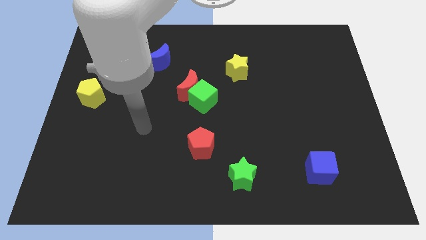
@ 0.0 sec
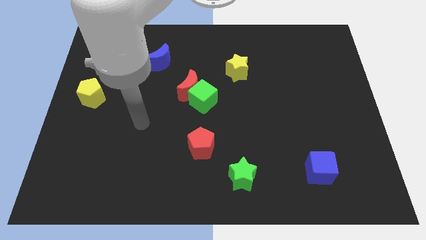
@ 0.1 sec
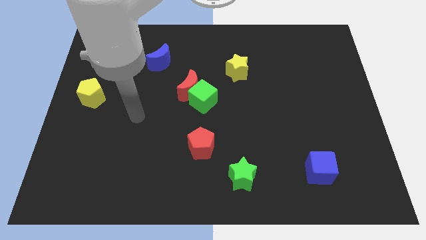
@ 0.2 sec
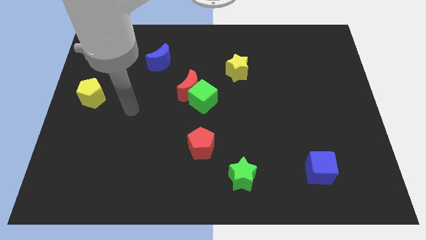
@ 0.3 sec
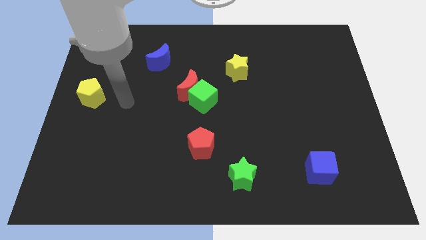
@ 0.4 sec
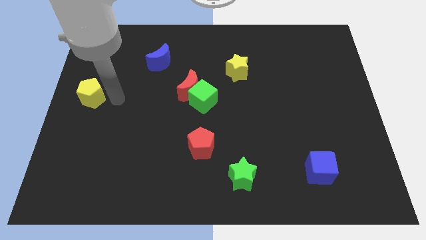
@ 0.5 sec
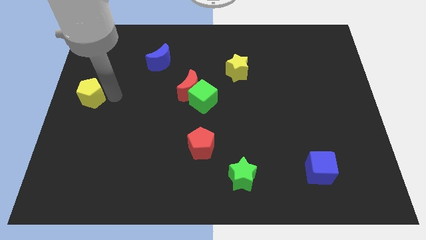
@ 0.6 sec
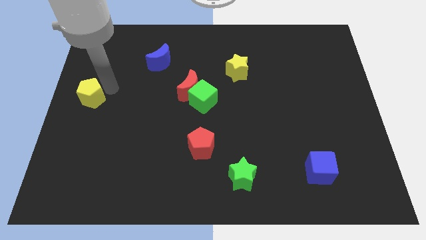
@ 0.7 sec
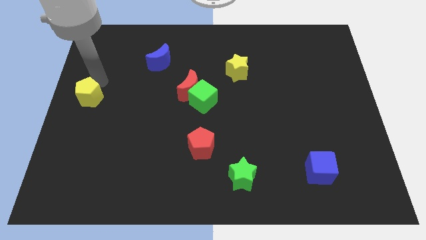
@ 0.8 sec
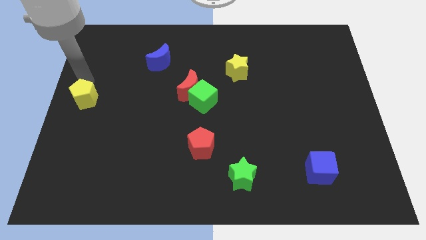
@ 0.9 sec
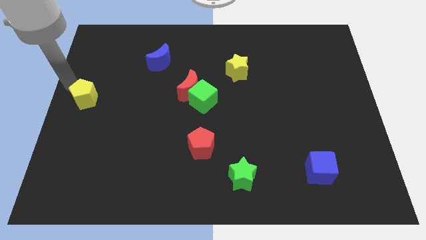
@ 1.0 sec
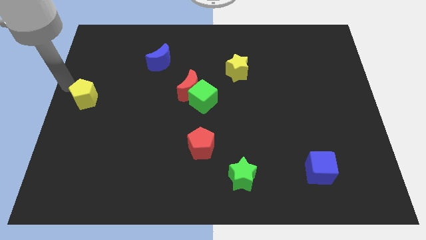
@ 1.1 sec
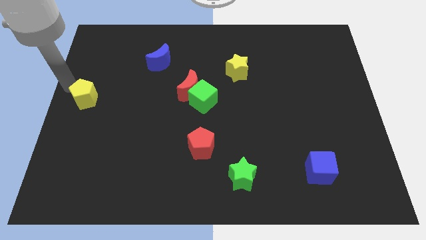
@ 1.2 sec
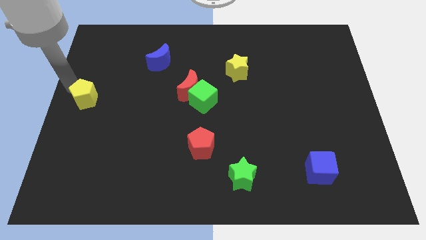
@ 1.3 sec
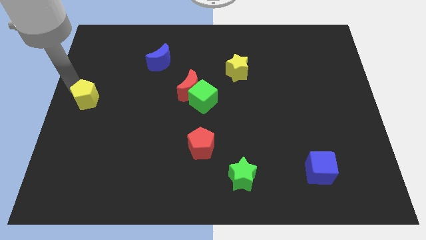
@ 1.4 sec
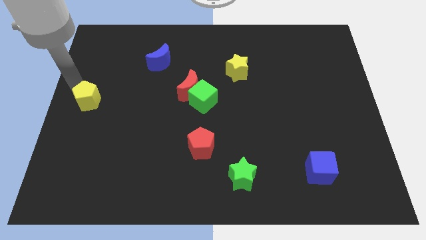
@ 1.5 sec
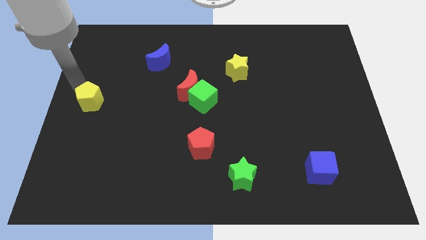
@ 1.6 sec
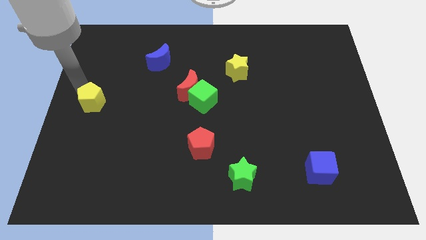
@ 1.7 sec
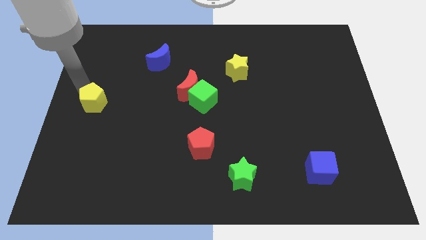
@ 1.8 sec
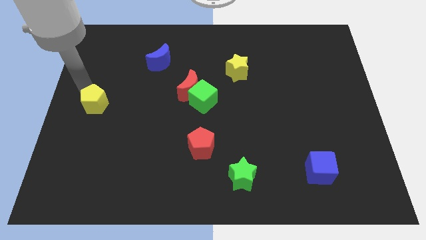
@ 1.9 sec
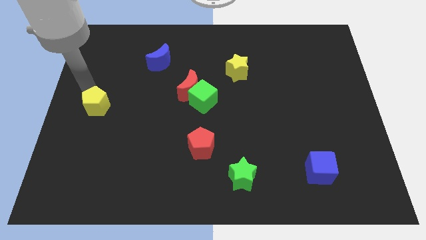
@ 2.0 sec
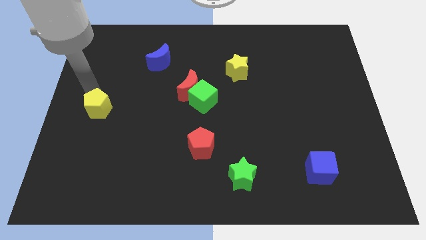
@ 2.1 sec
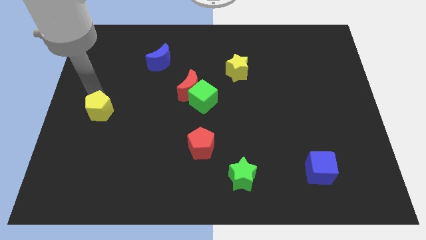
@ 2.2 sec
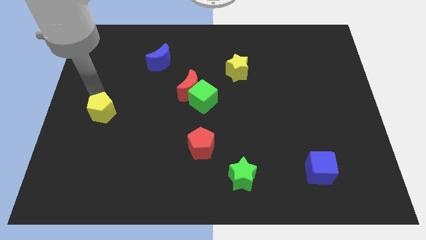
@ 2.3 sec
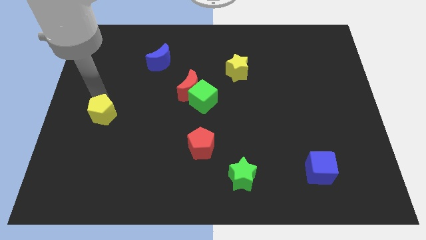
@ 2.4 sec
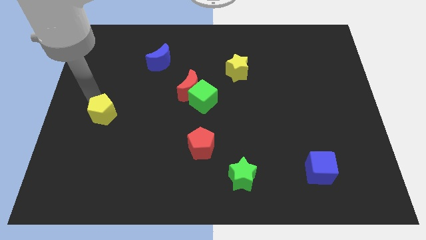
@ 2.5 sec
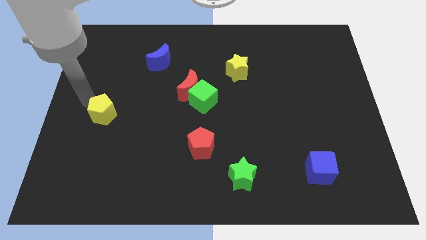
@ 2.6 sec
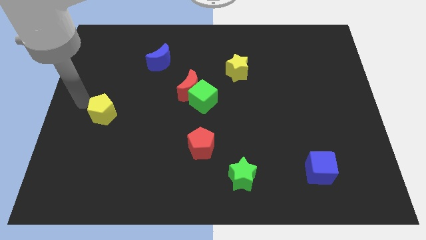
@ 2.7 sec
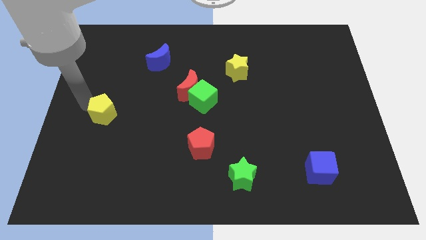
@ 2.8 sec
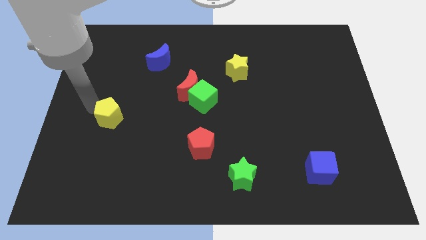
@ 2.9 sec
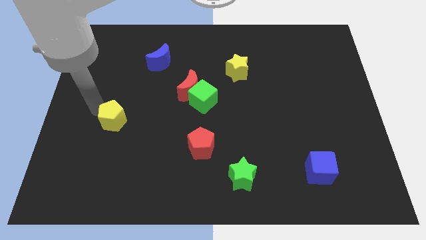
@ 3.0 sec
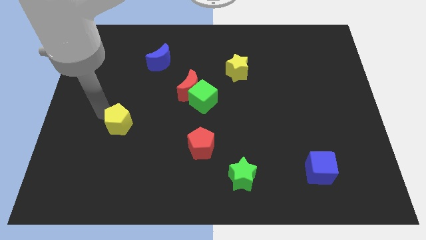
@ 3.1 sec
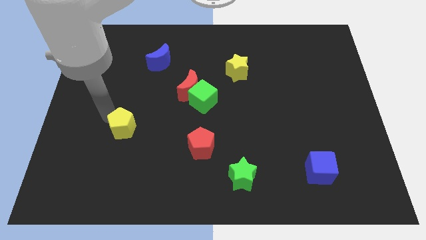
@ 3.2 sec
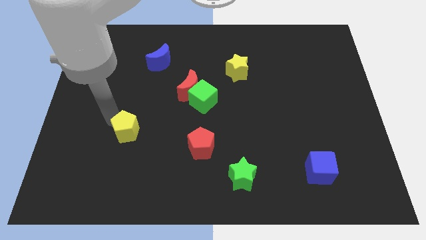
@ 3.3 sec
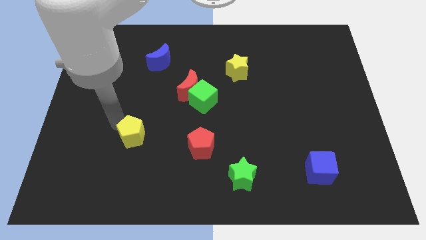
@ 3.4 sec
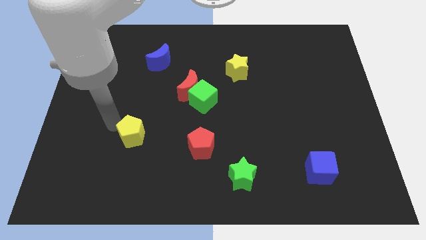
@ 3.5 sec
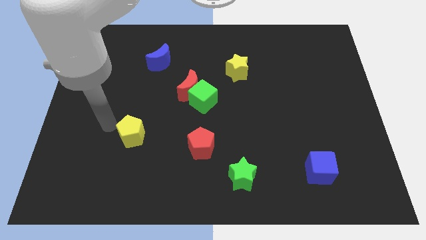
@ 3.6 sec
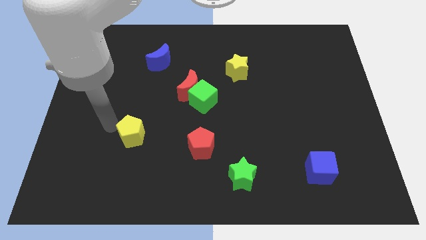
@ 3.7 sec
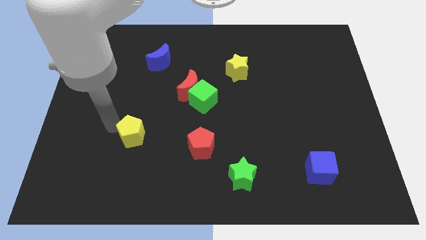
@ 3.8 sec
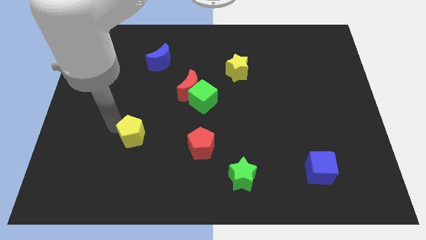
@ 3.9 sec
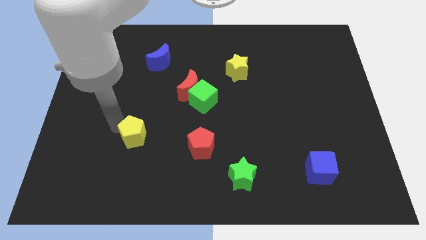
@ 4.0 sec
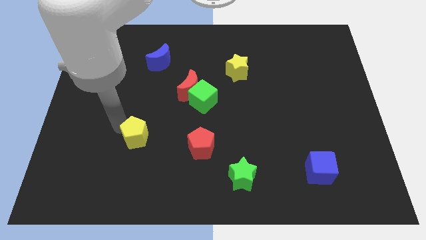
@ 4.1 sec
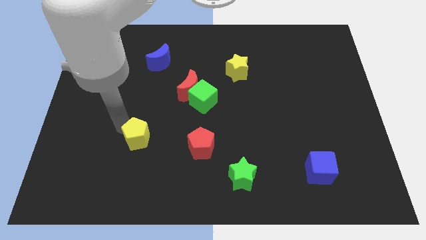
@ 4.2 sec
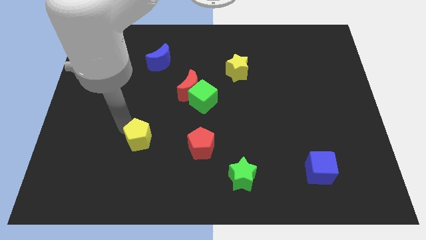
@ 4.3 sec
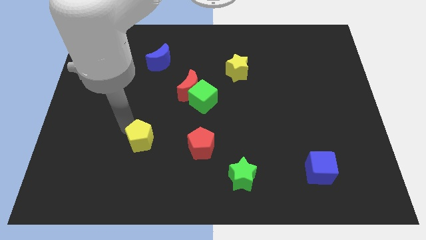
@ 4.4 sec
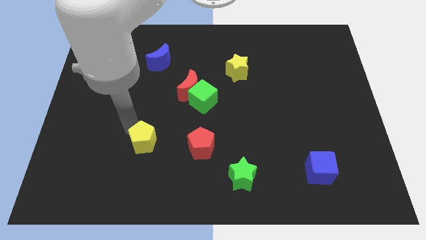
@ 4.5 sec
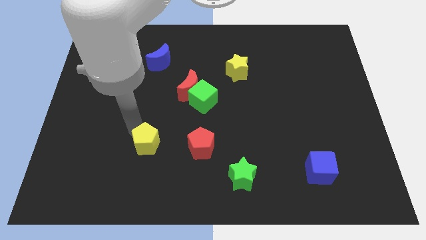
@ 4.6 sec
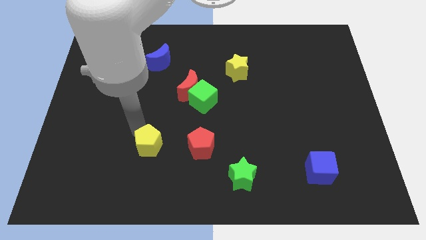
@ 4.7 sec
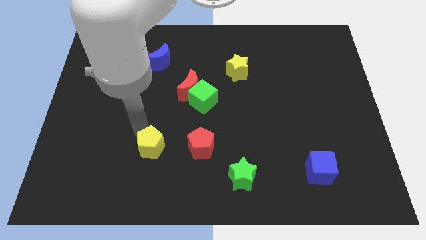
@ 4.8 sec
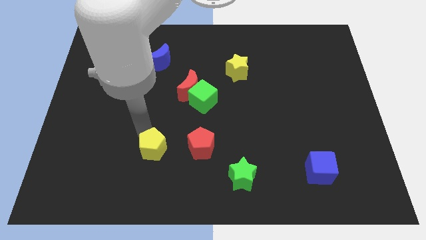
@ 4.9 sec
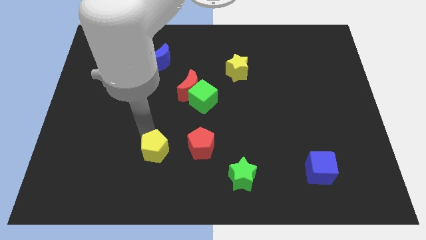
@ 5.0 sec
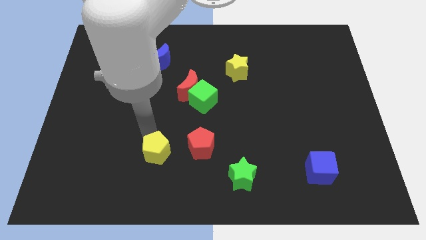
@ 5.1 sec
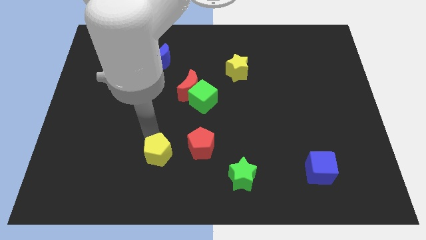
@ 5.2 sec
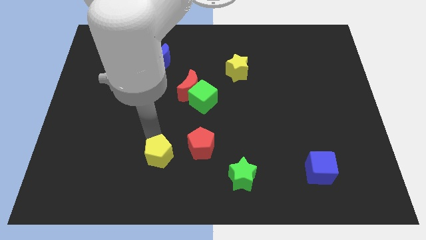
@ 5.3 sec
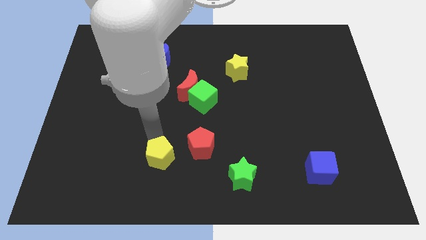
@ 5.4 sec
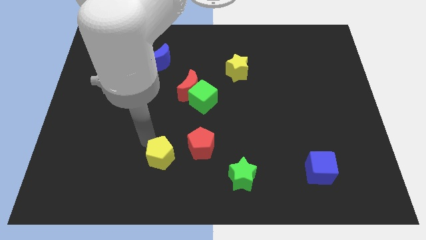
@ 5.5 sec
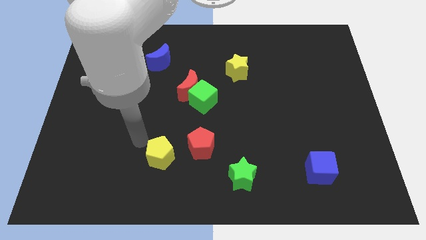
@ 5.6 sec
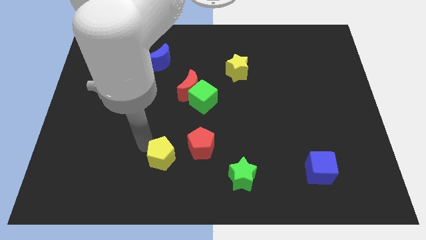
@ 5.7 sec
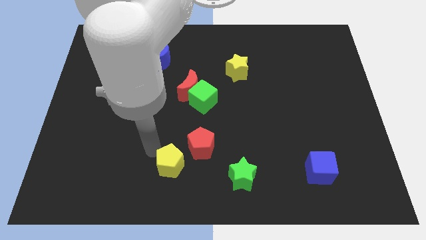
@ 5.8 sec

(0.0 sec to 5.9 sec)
move the yellow pentagon just left of the green star
